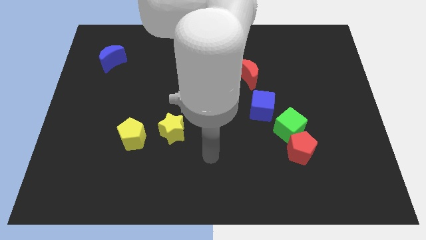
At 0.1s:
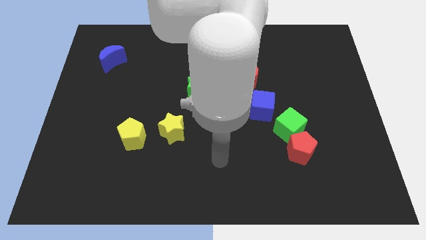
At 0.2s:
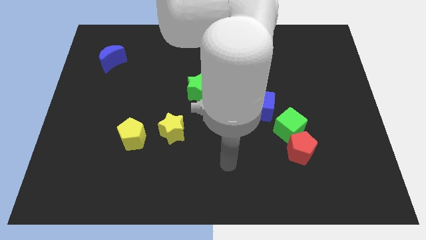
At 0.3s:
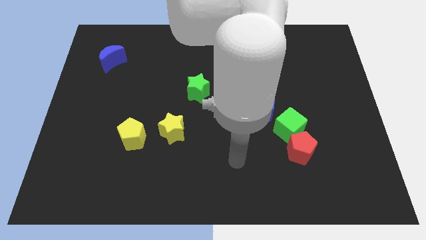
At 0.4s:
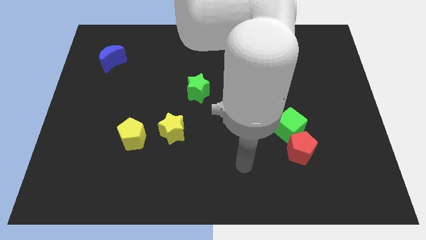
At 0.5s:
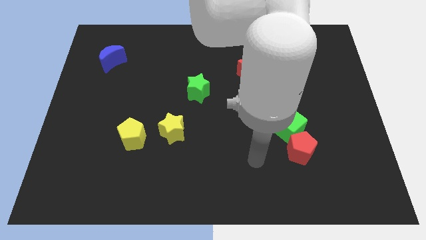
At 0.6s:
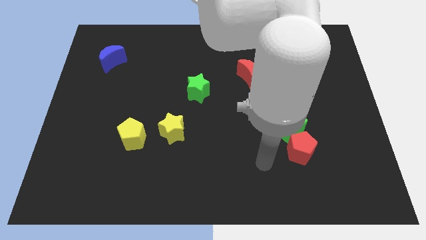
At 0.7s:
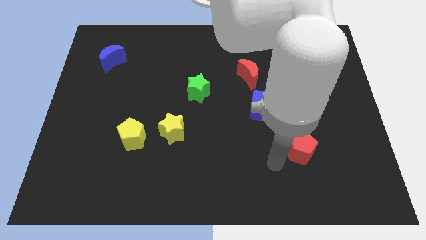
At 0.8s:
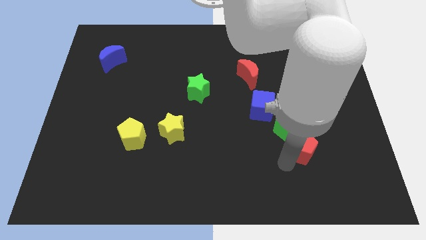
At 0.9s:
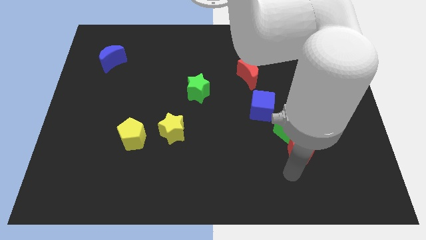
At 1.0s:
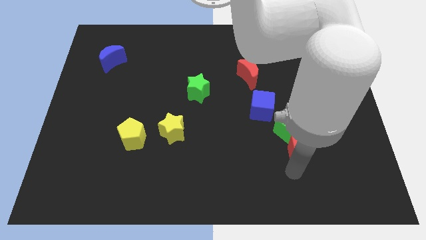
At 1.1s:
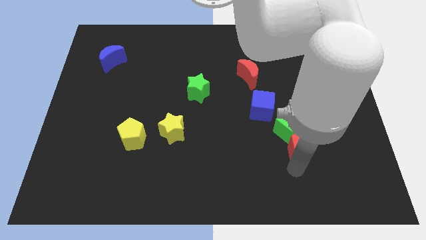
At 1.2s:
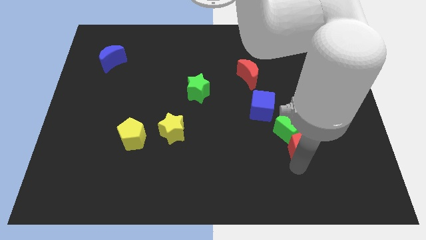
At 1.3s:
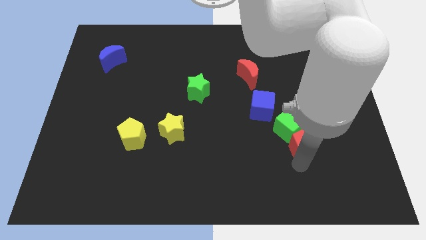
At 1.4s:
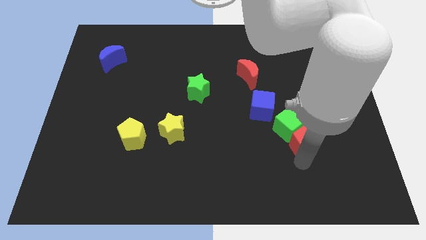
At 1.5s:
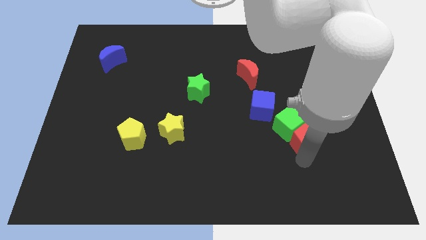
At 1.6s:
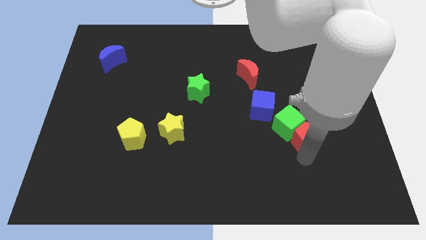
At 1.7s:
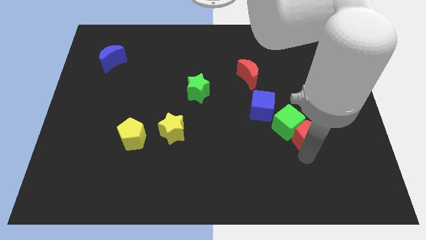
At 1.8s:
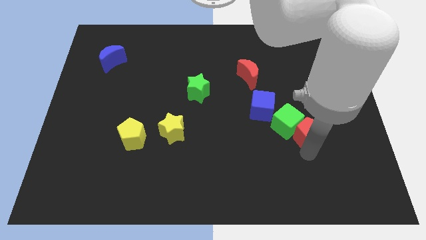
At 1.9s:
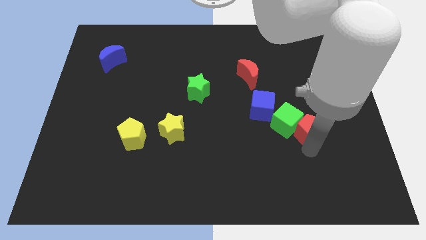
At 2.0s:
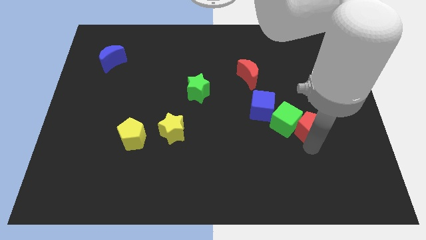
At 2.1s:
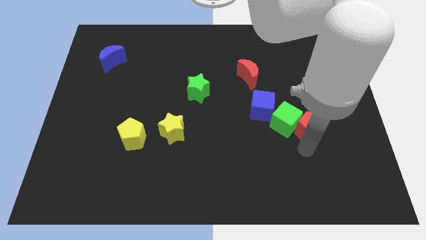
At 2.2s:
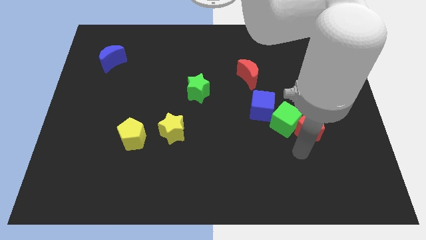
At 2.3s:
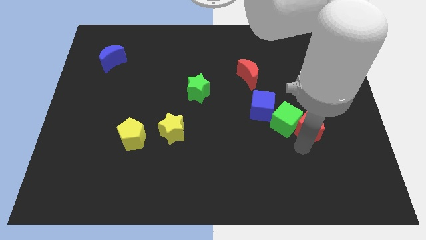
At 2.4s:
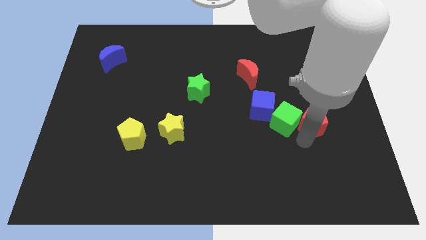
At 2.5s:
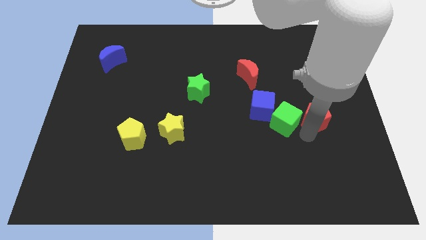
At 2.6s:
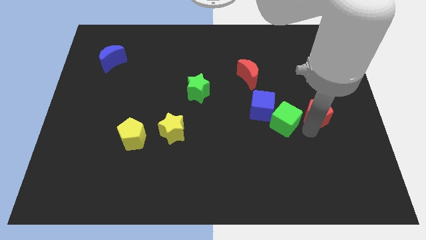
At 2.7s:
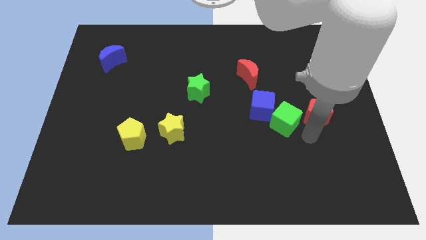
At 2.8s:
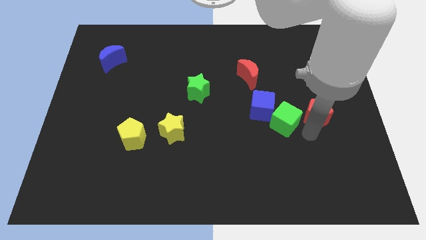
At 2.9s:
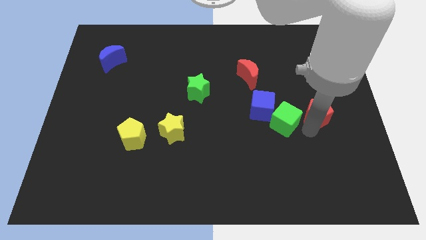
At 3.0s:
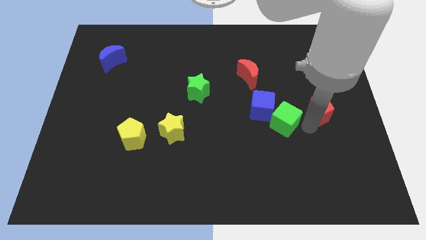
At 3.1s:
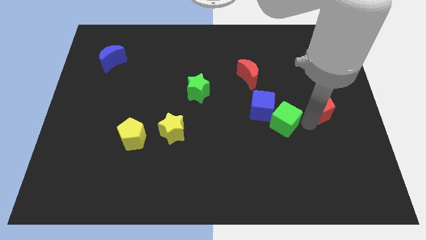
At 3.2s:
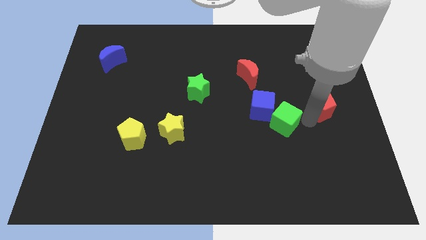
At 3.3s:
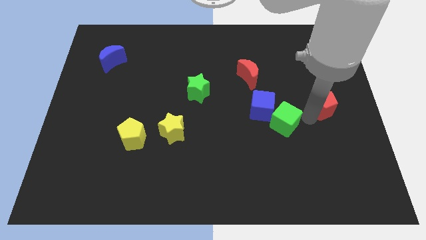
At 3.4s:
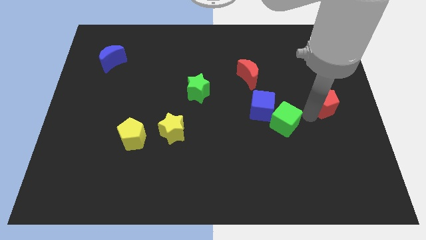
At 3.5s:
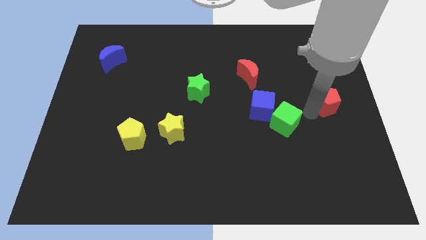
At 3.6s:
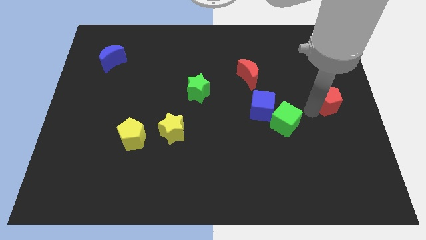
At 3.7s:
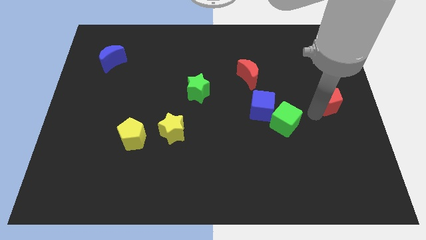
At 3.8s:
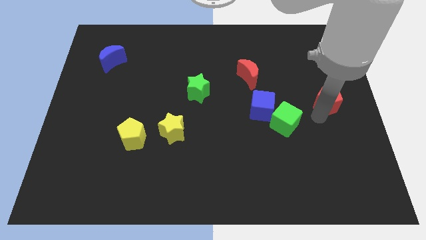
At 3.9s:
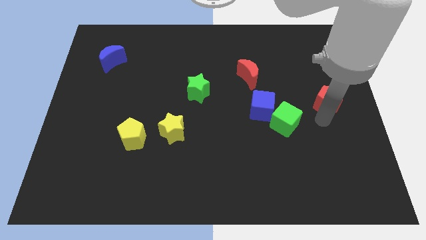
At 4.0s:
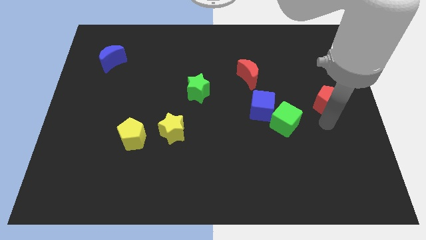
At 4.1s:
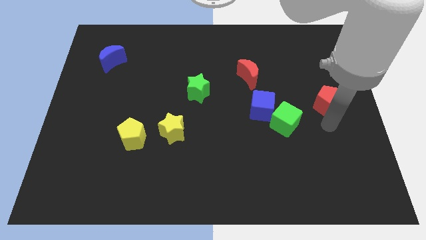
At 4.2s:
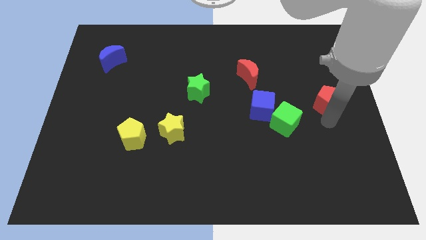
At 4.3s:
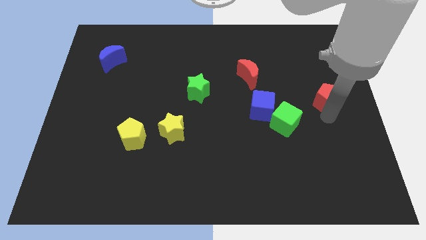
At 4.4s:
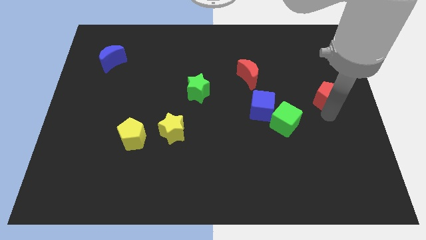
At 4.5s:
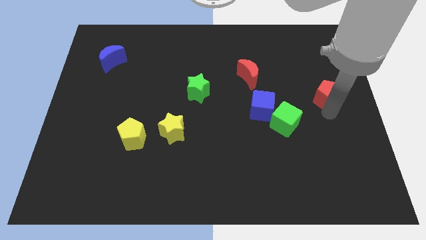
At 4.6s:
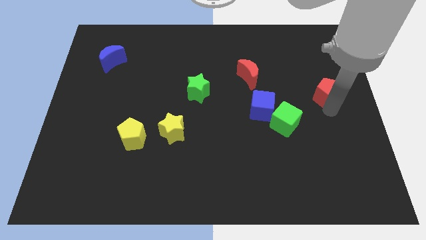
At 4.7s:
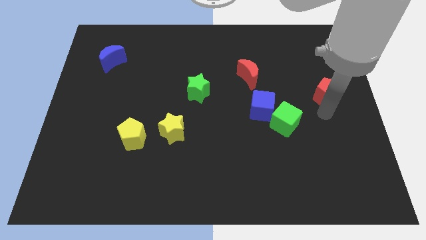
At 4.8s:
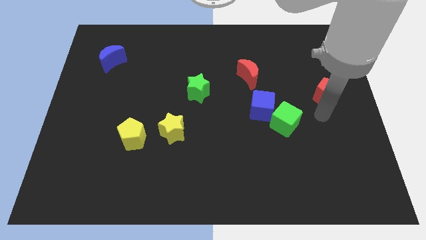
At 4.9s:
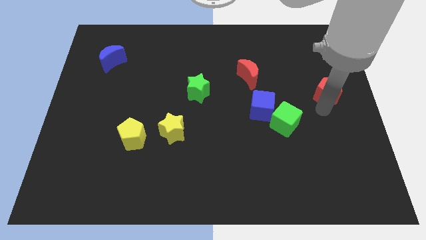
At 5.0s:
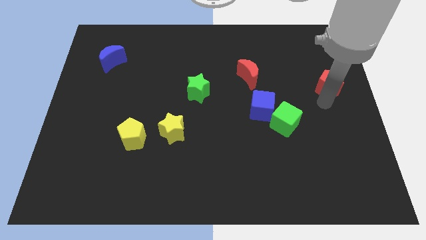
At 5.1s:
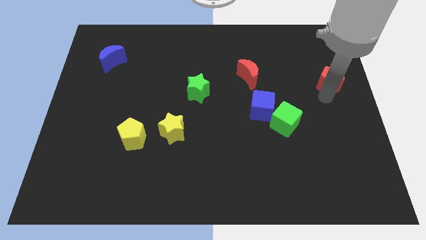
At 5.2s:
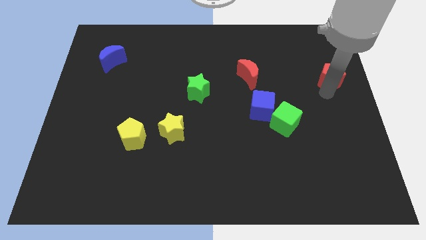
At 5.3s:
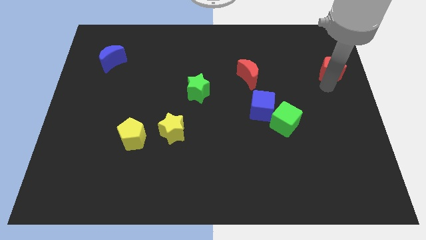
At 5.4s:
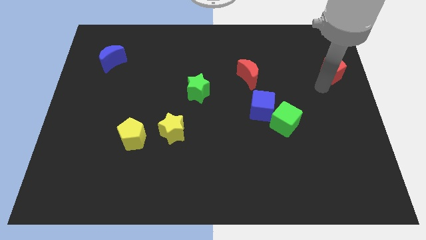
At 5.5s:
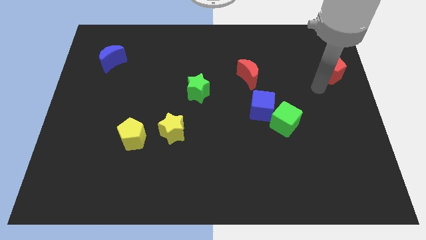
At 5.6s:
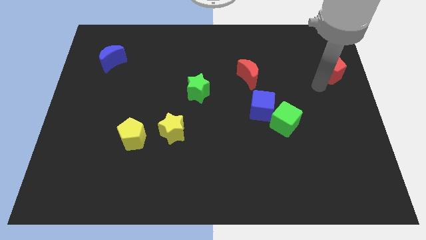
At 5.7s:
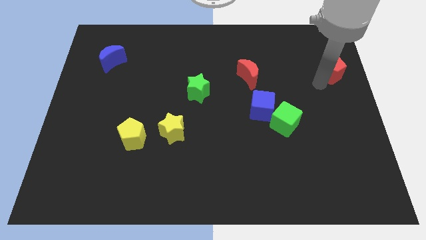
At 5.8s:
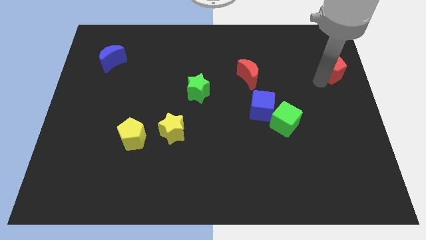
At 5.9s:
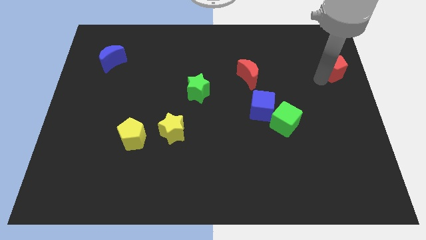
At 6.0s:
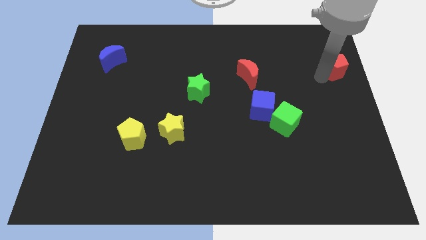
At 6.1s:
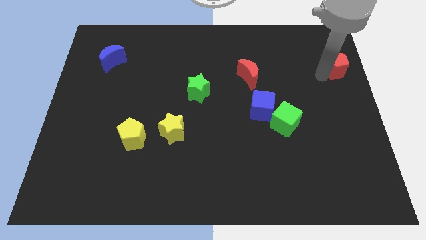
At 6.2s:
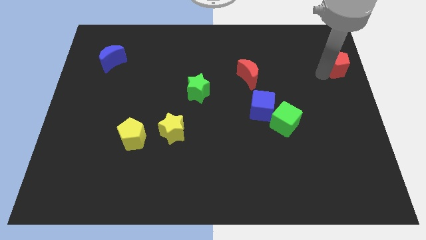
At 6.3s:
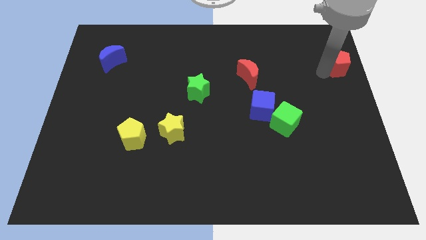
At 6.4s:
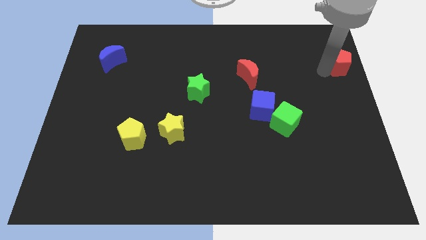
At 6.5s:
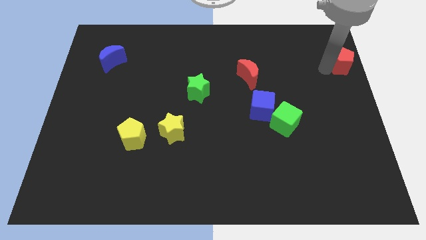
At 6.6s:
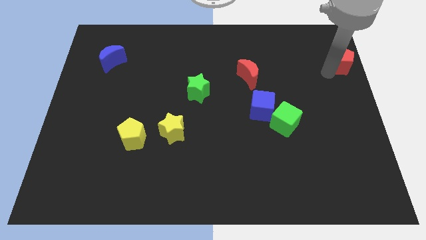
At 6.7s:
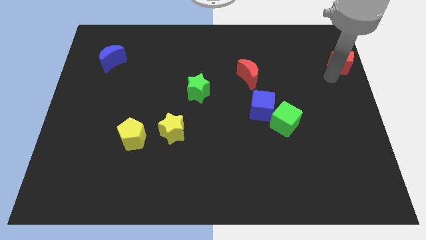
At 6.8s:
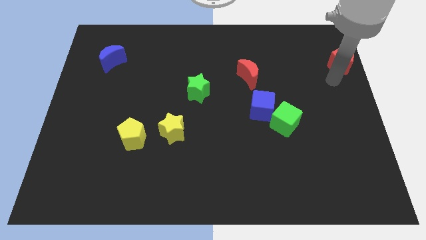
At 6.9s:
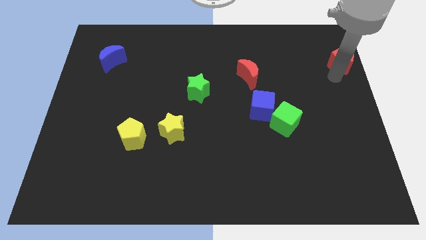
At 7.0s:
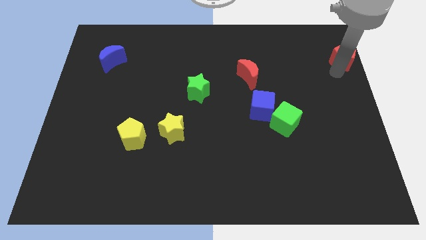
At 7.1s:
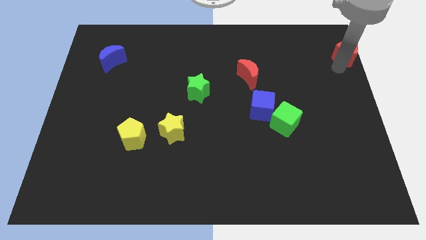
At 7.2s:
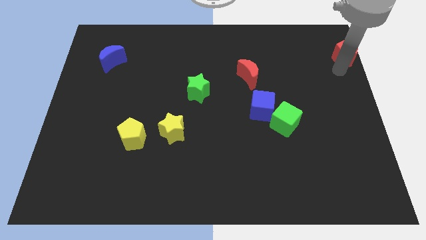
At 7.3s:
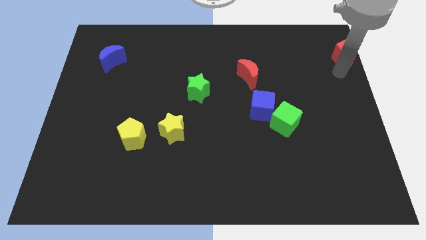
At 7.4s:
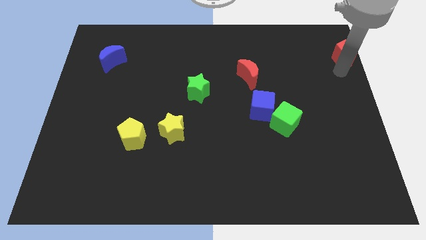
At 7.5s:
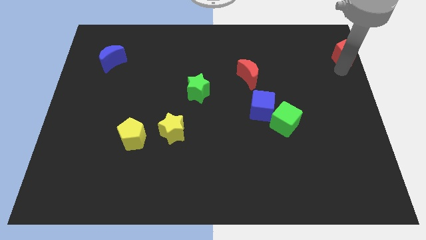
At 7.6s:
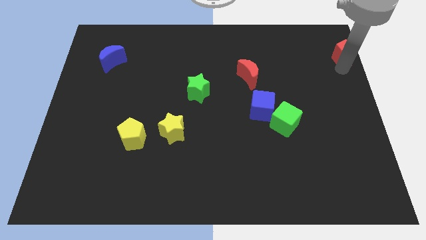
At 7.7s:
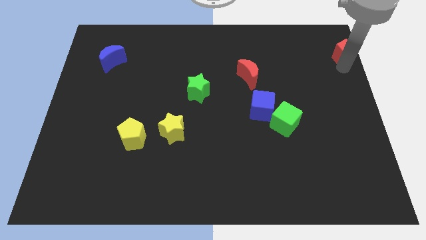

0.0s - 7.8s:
slide the red pentagon to the top right
